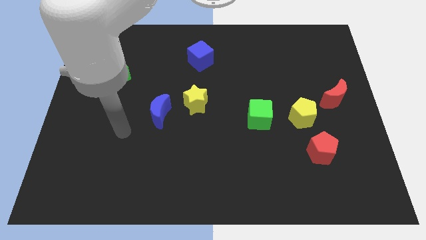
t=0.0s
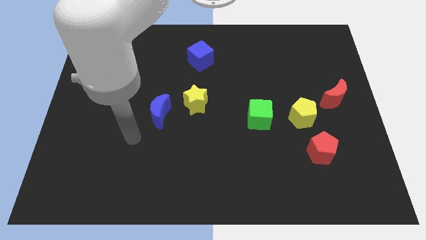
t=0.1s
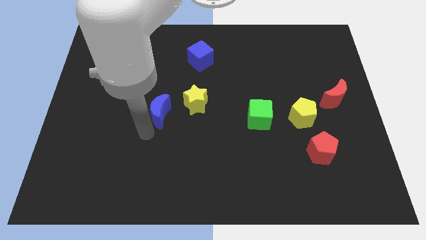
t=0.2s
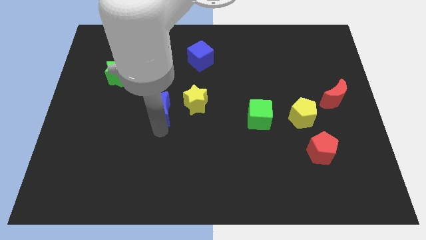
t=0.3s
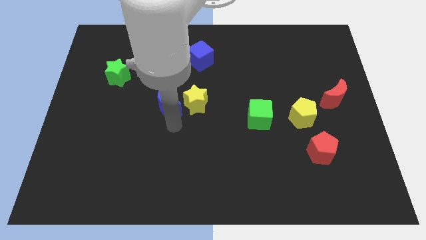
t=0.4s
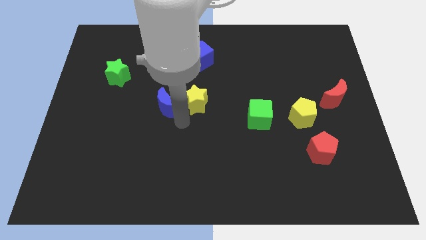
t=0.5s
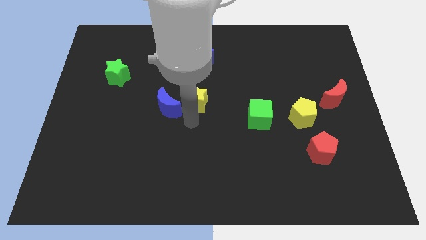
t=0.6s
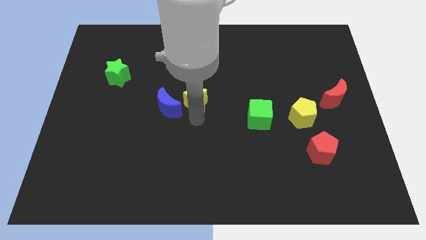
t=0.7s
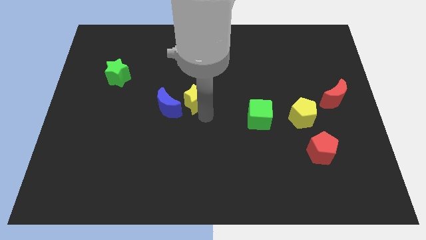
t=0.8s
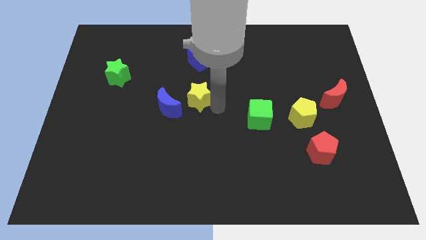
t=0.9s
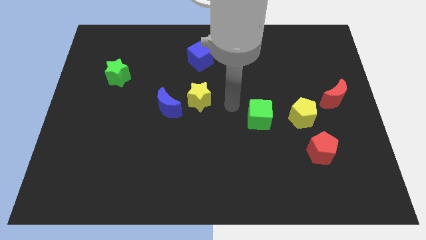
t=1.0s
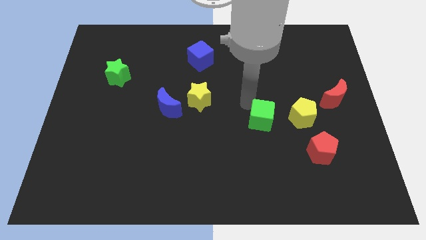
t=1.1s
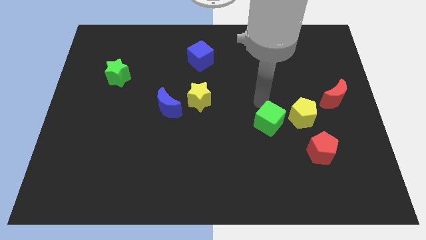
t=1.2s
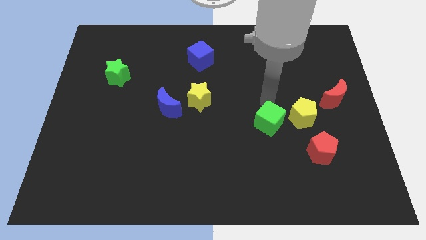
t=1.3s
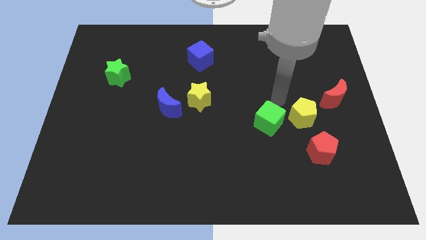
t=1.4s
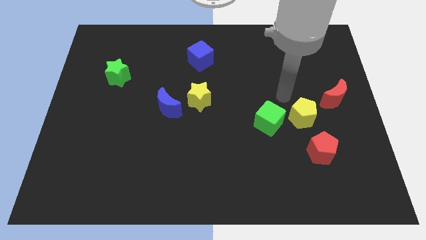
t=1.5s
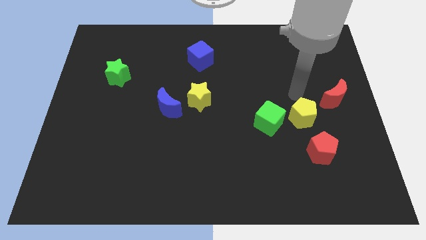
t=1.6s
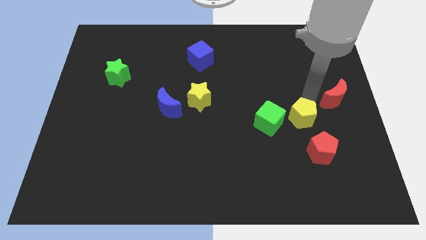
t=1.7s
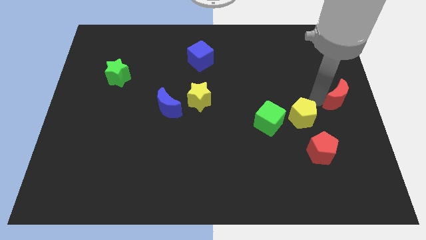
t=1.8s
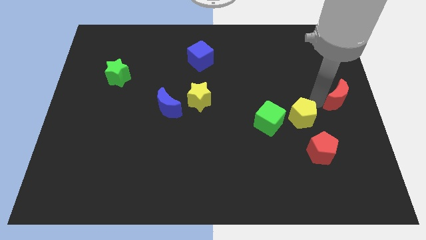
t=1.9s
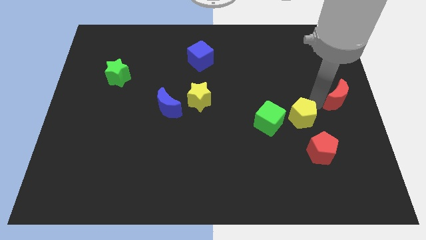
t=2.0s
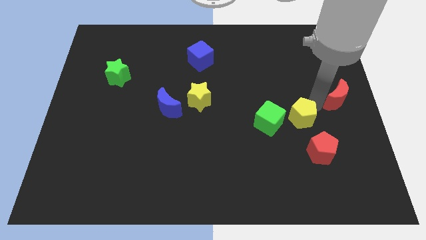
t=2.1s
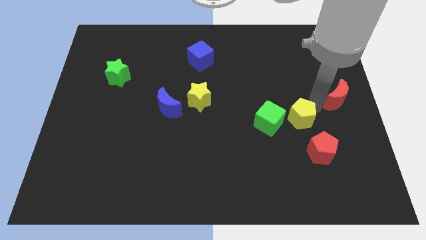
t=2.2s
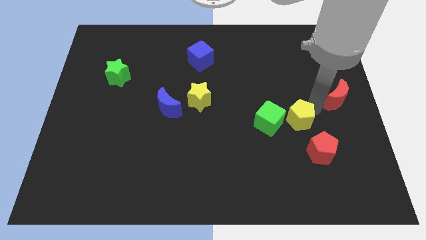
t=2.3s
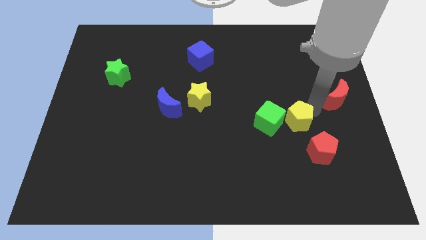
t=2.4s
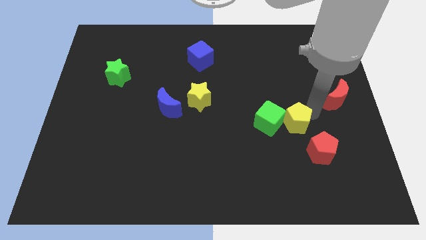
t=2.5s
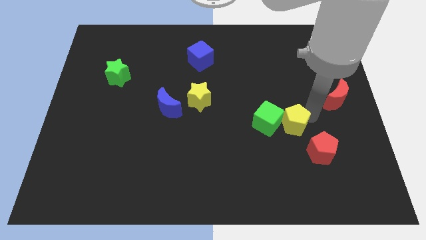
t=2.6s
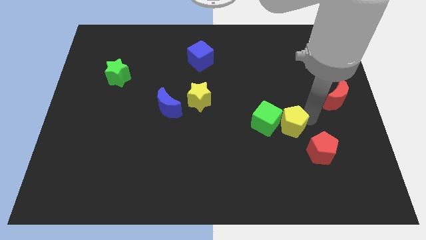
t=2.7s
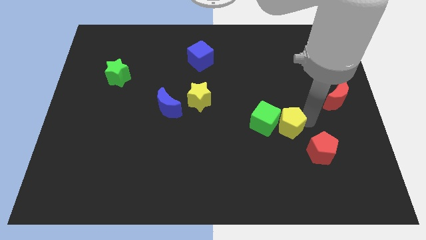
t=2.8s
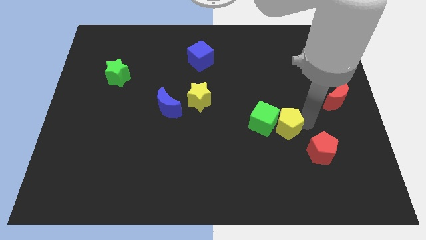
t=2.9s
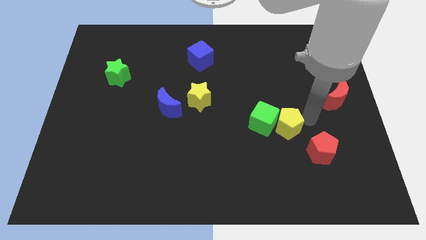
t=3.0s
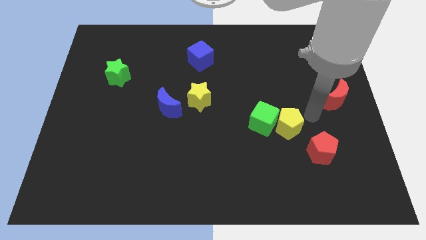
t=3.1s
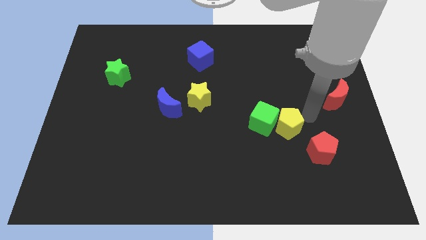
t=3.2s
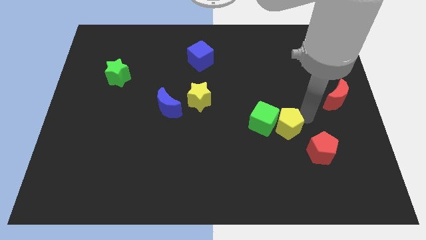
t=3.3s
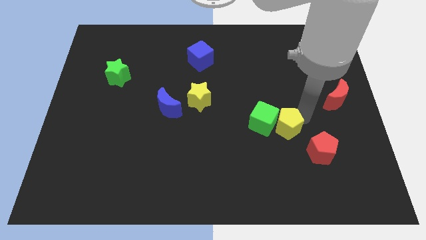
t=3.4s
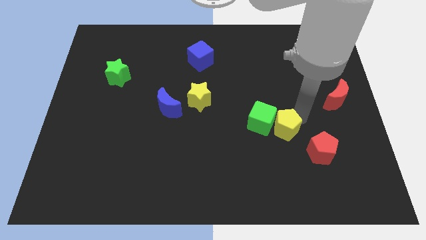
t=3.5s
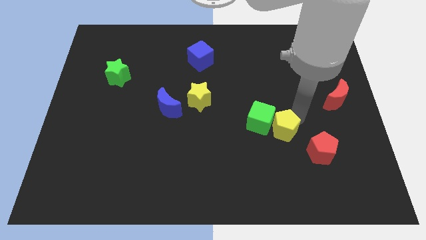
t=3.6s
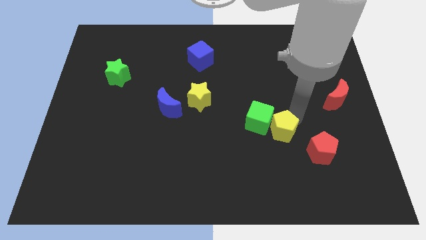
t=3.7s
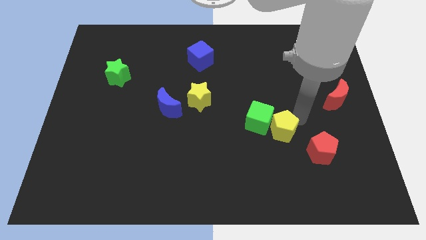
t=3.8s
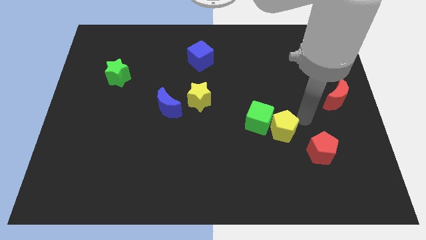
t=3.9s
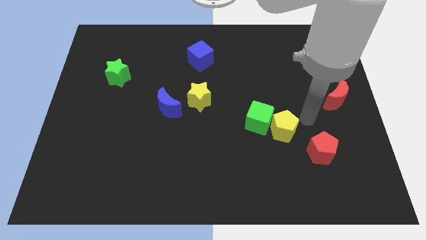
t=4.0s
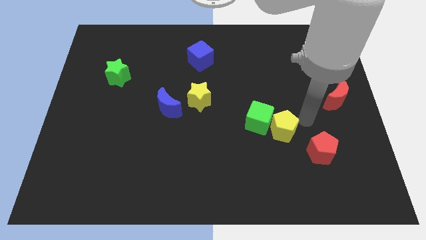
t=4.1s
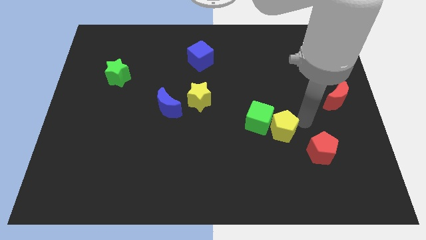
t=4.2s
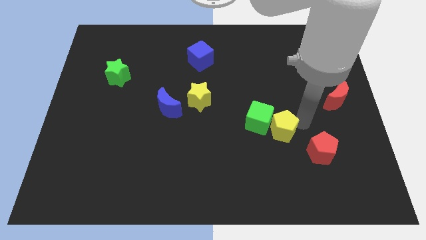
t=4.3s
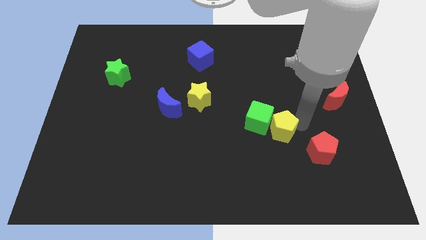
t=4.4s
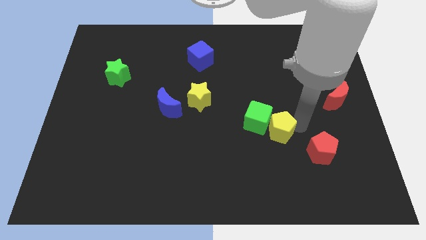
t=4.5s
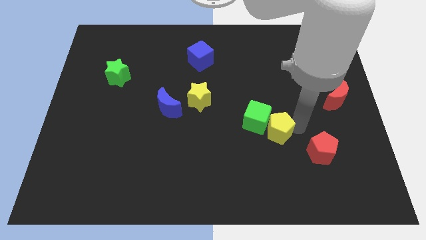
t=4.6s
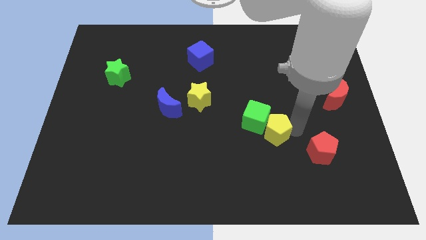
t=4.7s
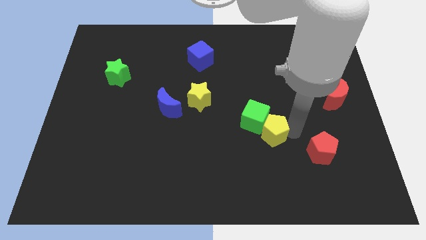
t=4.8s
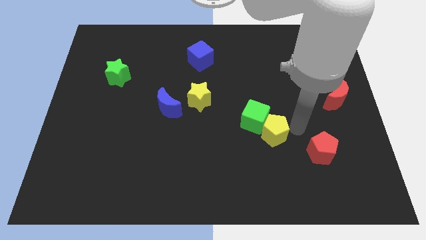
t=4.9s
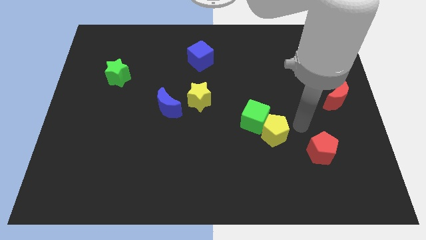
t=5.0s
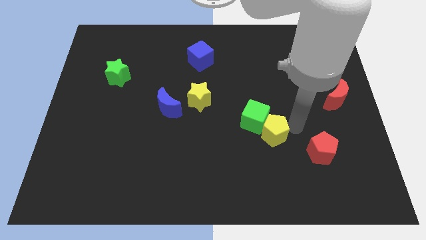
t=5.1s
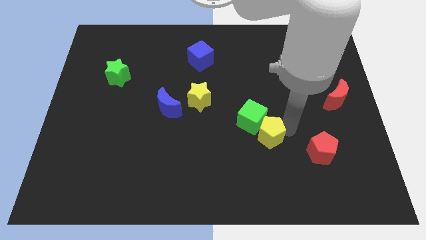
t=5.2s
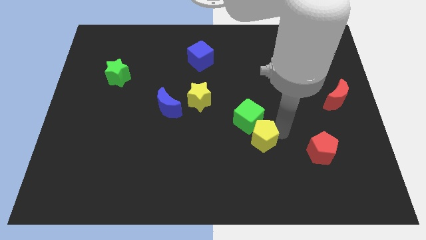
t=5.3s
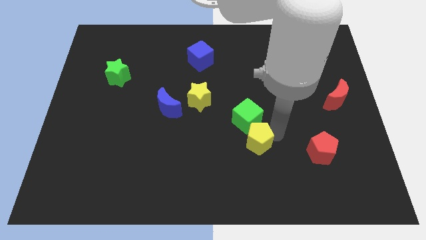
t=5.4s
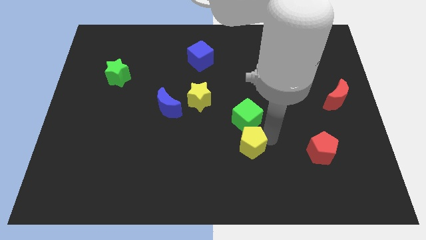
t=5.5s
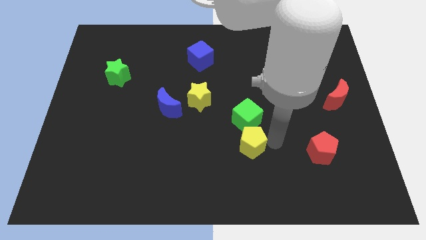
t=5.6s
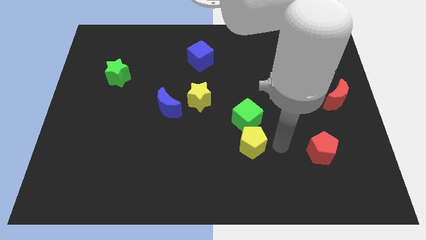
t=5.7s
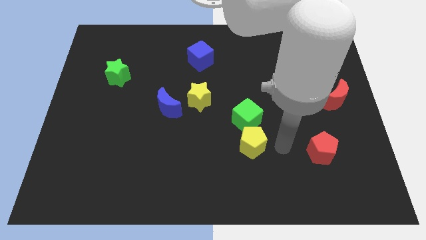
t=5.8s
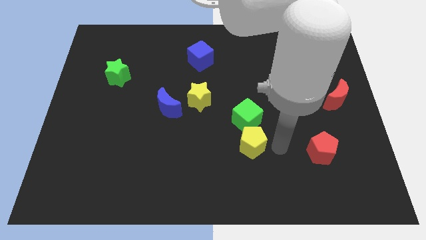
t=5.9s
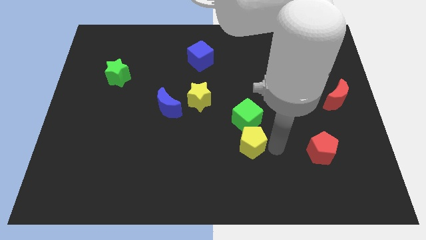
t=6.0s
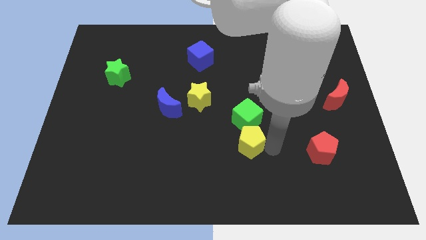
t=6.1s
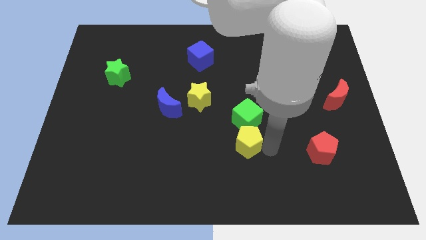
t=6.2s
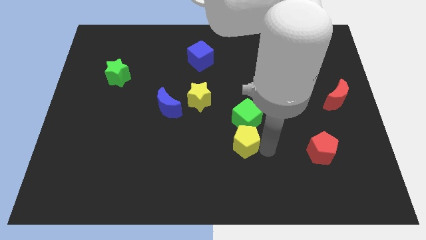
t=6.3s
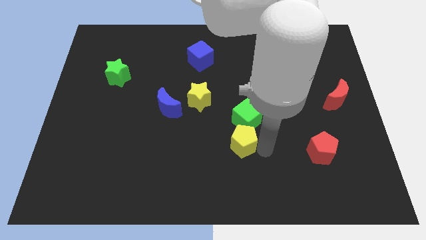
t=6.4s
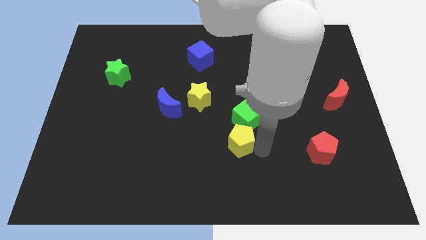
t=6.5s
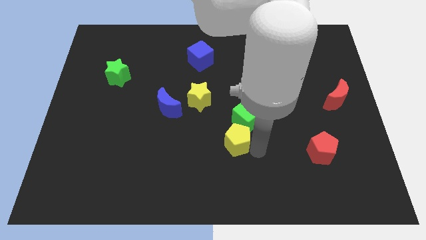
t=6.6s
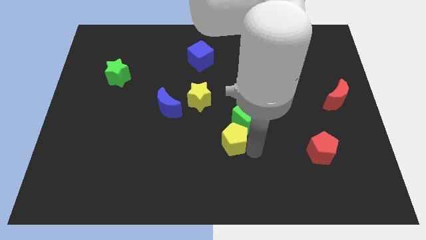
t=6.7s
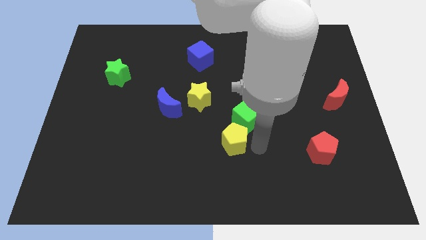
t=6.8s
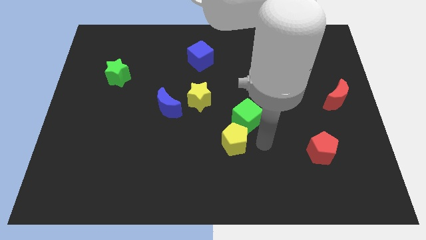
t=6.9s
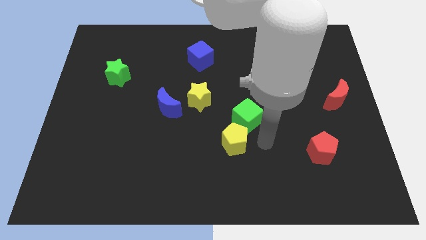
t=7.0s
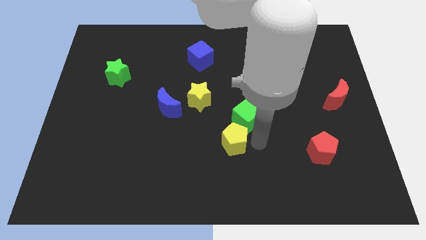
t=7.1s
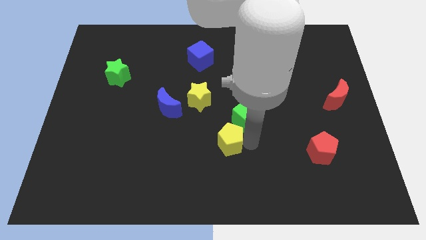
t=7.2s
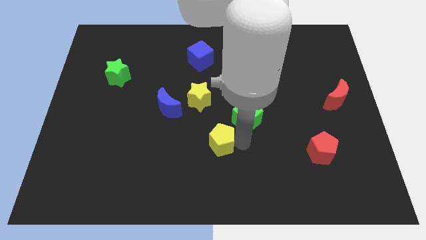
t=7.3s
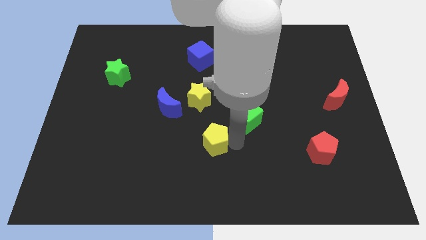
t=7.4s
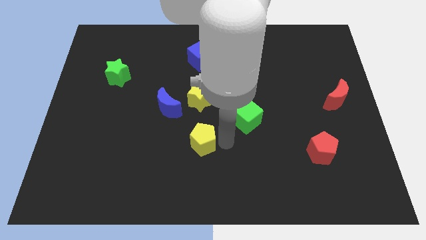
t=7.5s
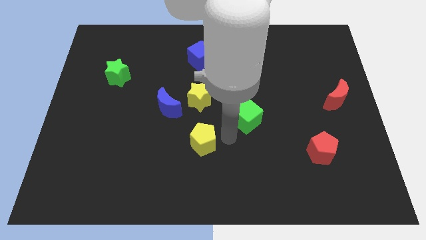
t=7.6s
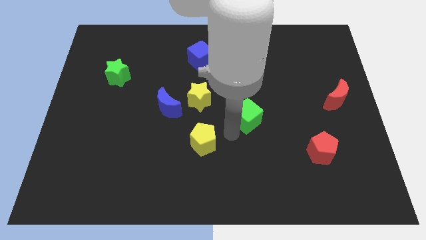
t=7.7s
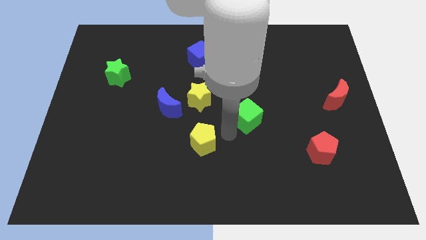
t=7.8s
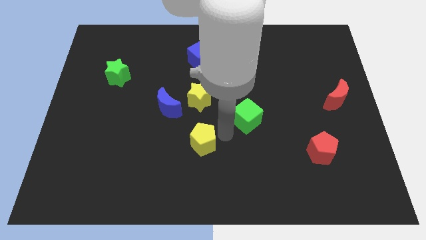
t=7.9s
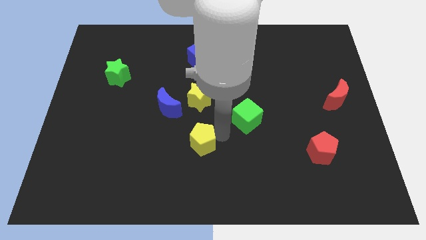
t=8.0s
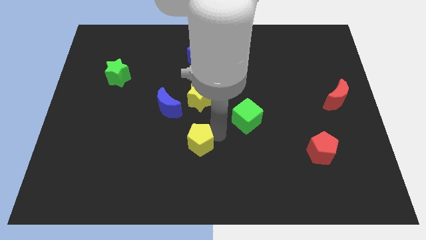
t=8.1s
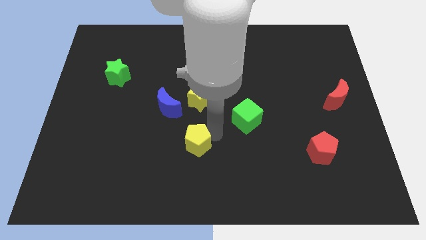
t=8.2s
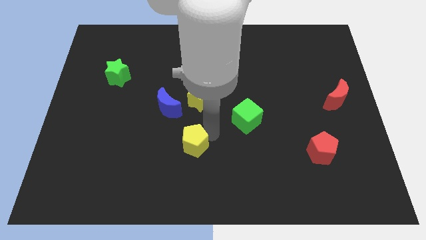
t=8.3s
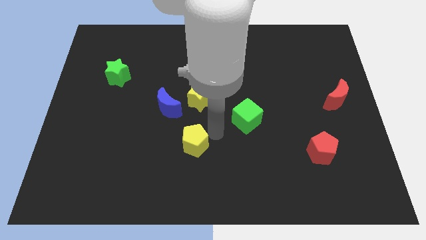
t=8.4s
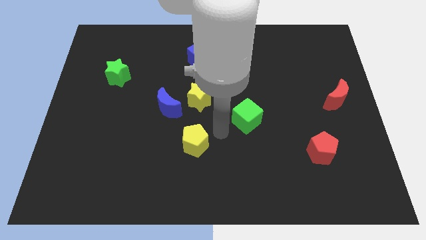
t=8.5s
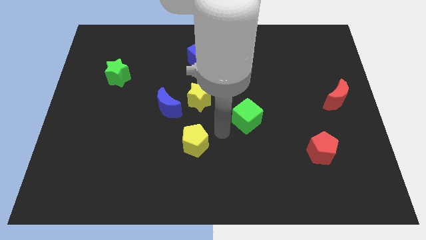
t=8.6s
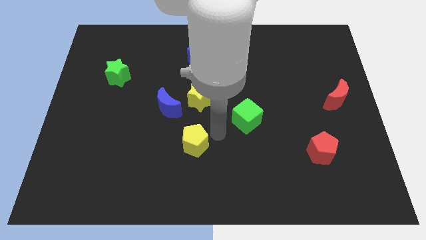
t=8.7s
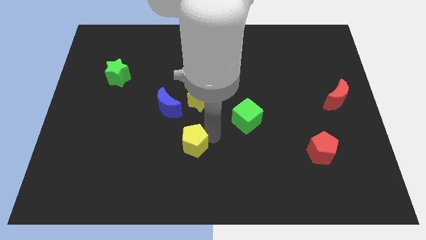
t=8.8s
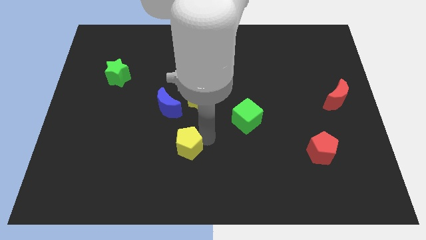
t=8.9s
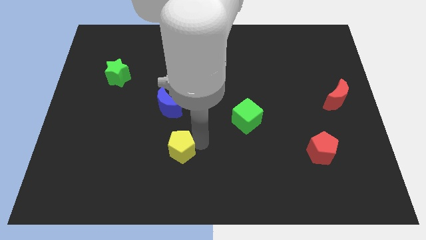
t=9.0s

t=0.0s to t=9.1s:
push the yellow pentagon below the blue moon
